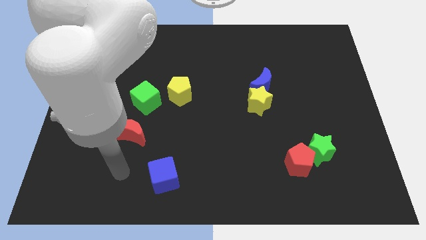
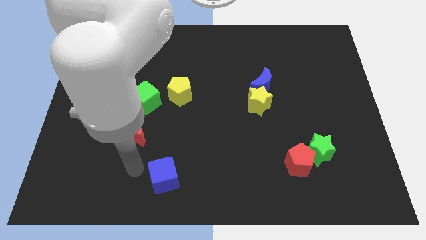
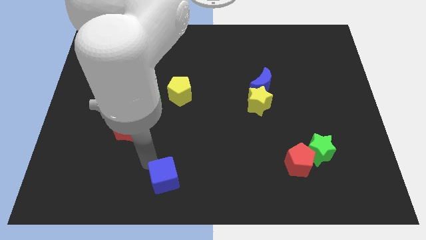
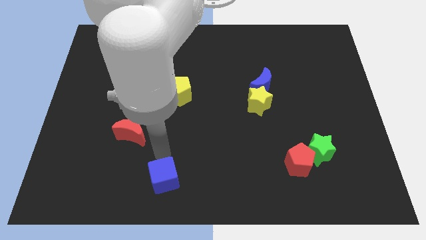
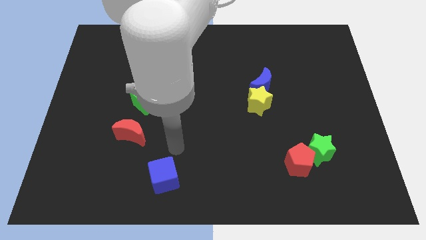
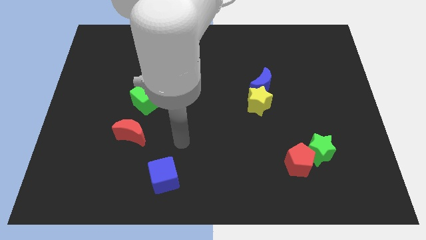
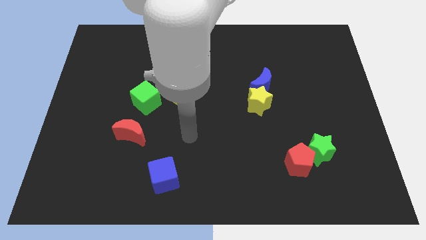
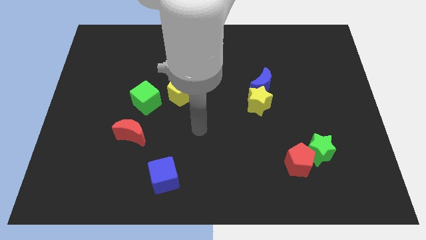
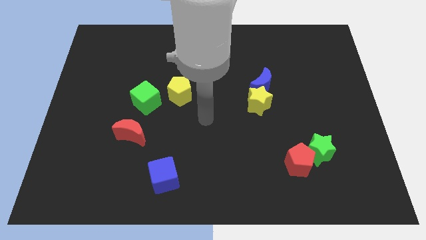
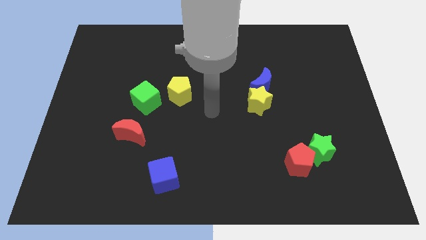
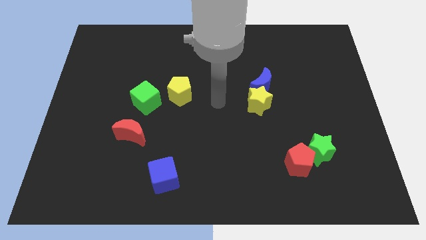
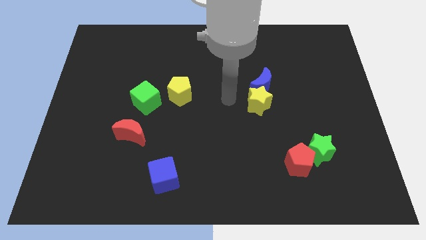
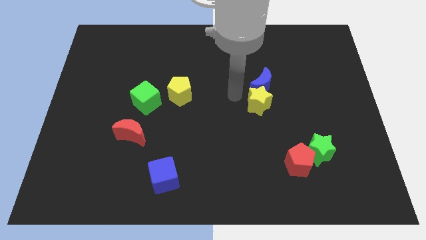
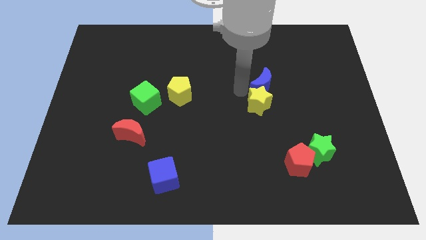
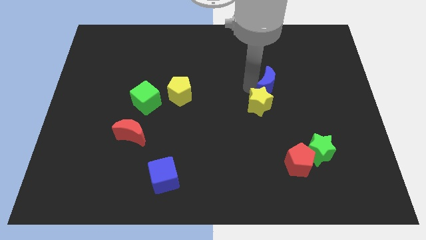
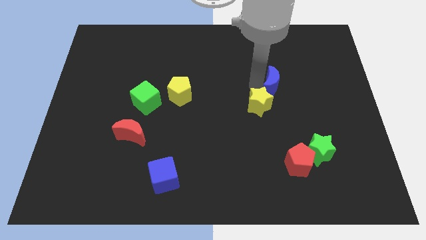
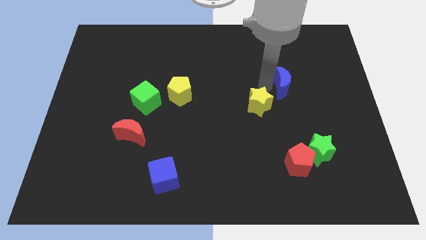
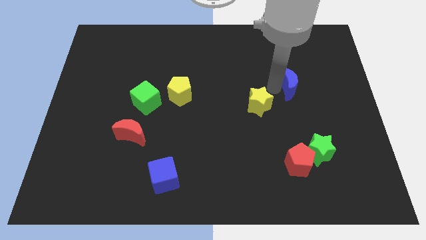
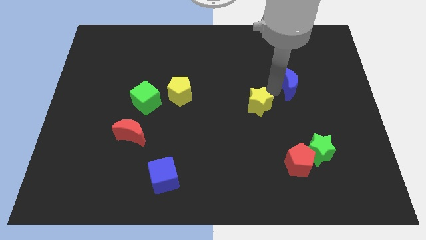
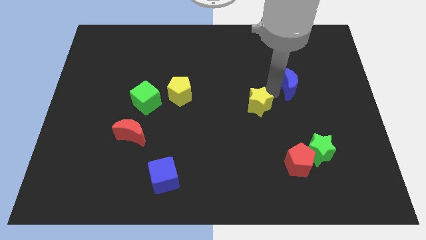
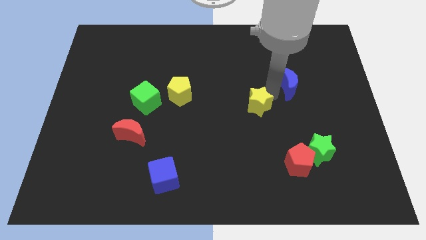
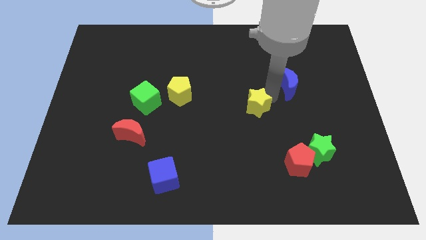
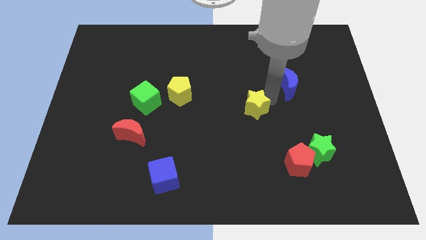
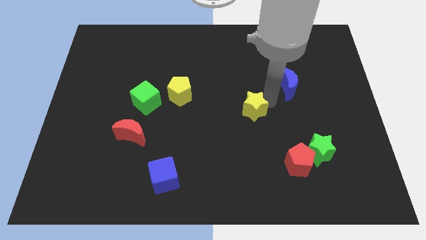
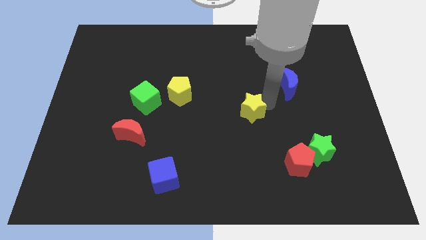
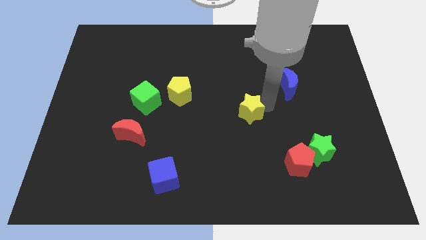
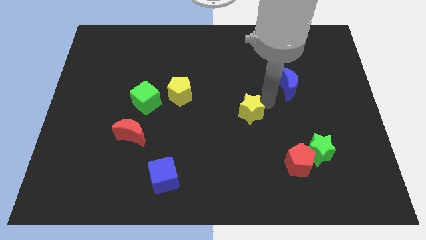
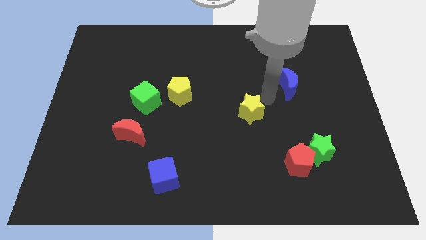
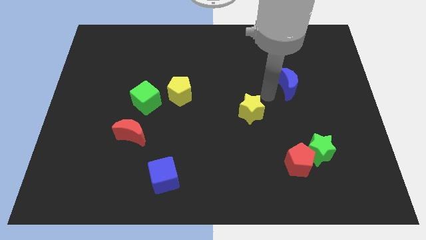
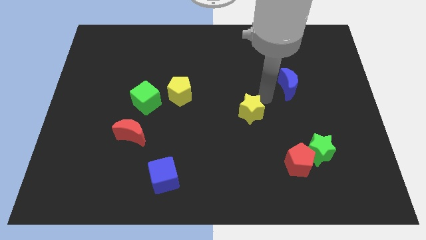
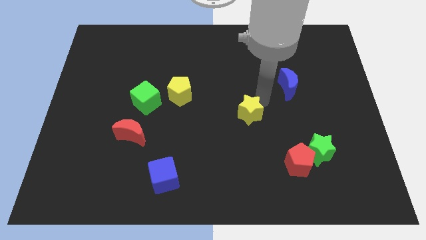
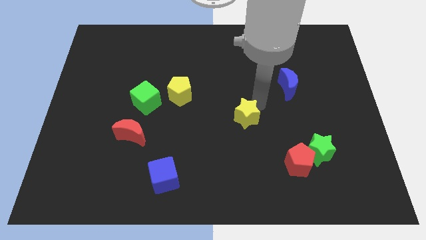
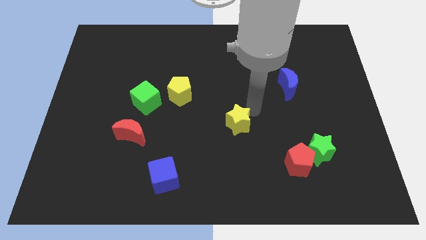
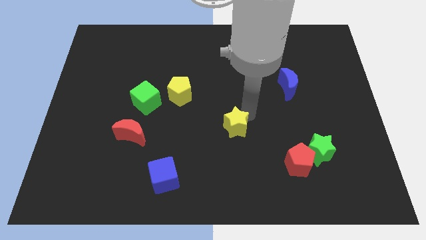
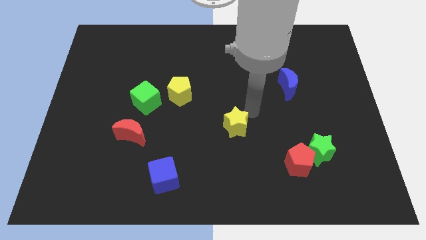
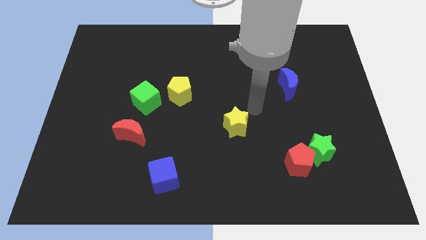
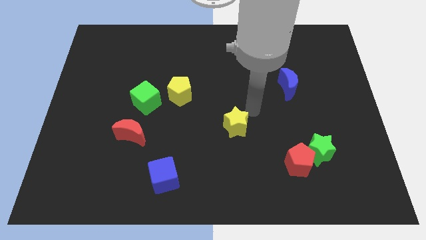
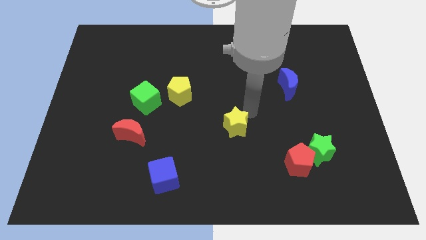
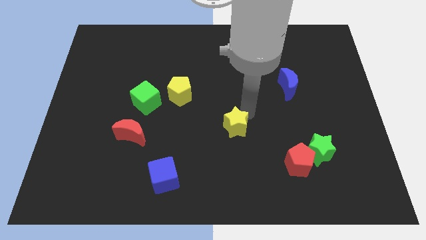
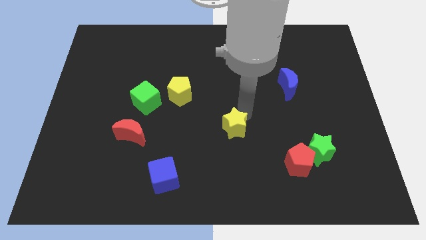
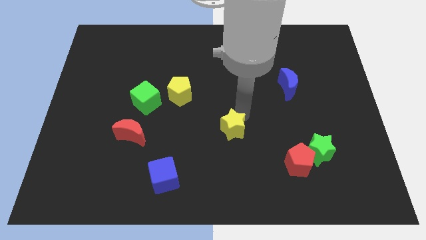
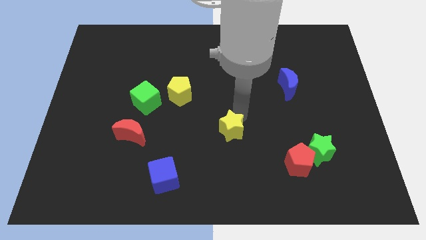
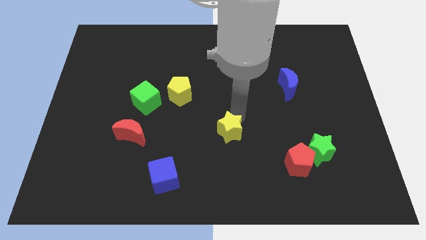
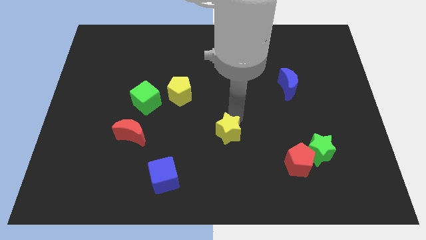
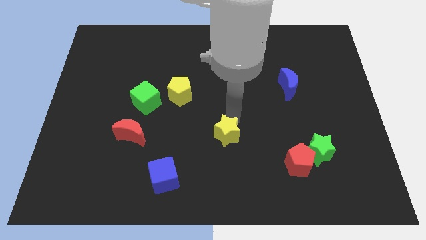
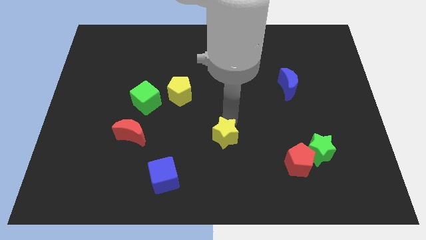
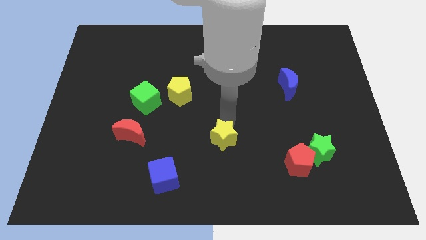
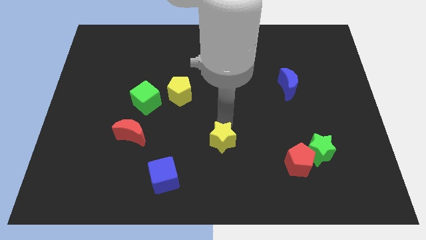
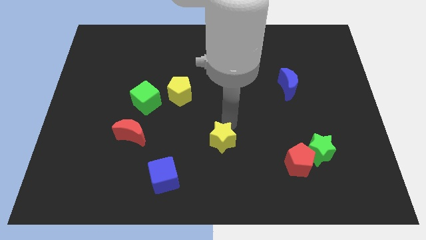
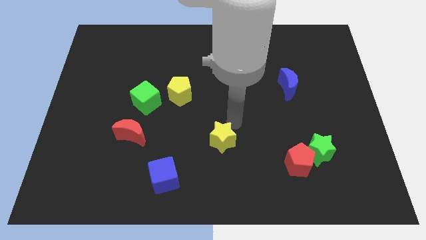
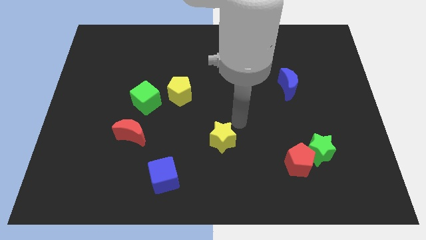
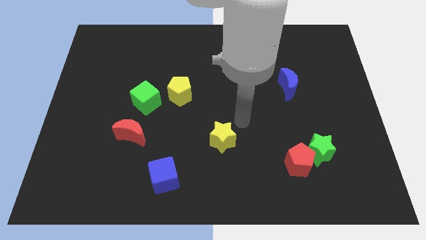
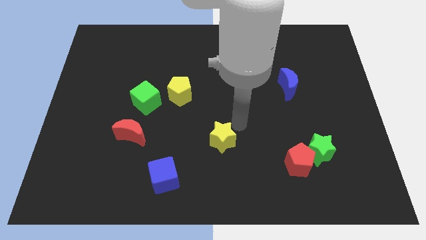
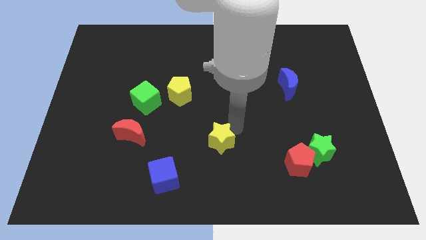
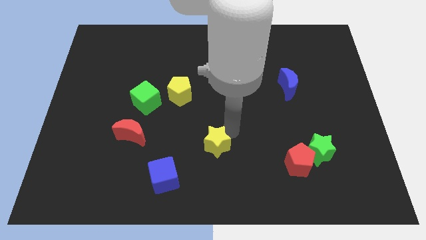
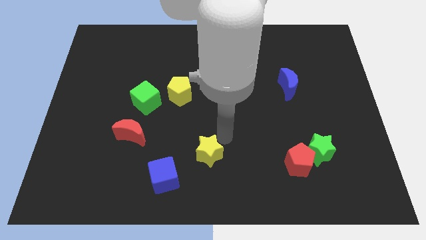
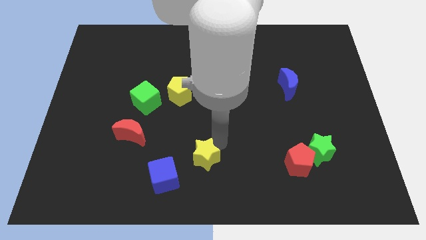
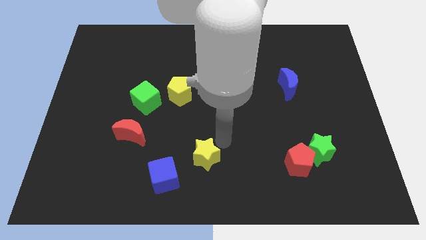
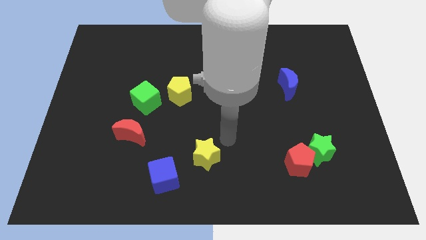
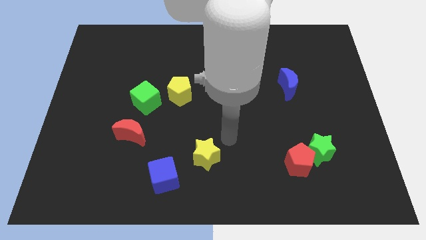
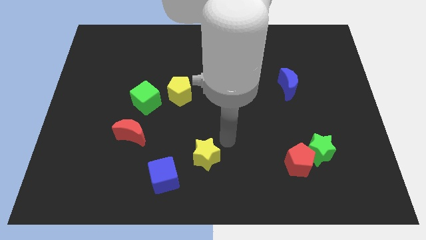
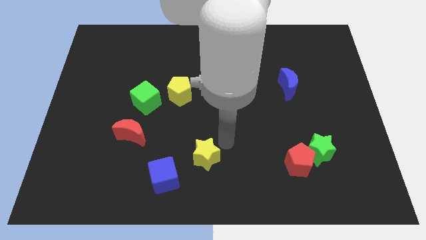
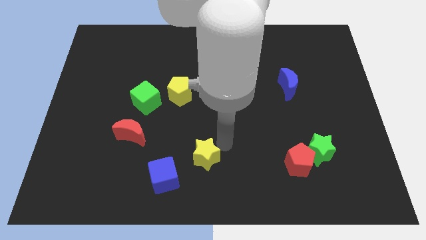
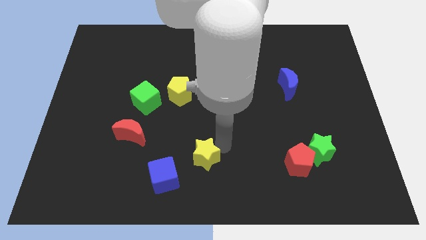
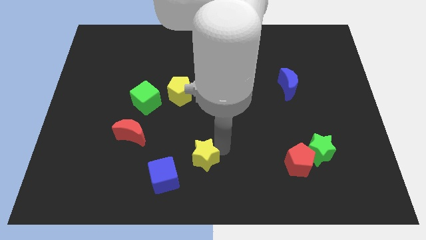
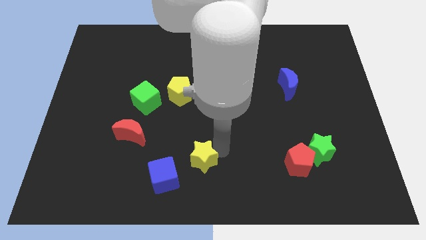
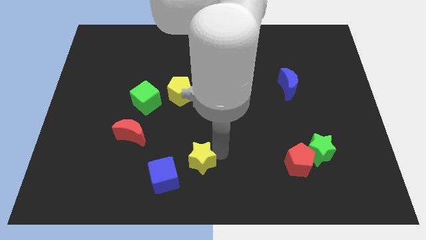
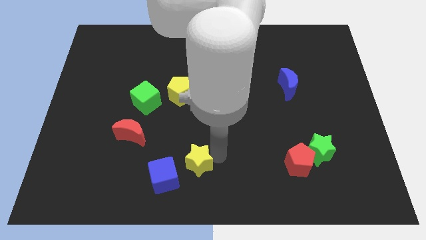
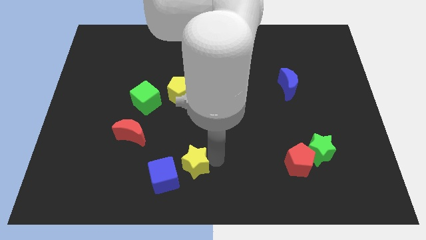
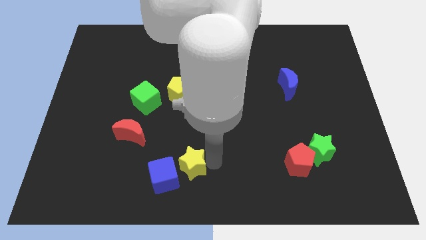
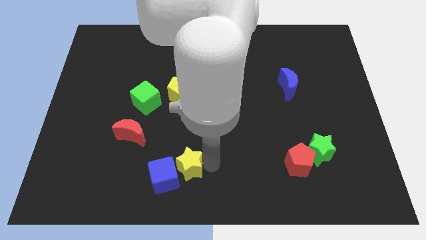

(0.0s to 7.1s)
push the yellow star next to the blue cube
